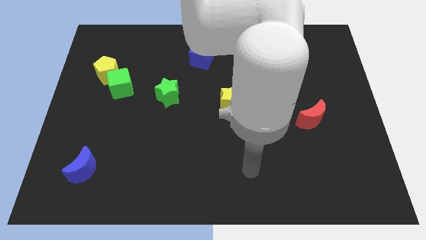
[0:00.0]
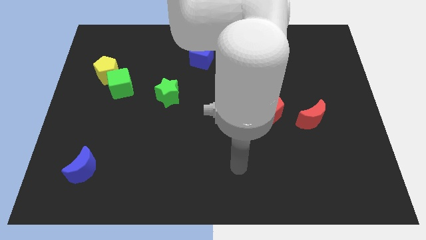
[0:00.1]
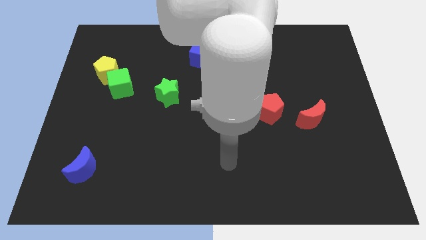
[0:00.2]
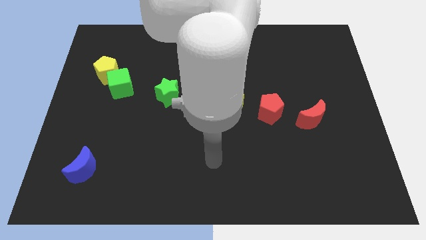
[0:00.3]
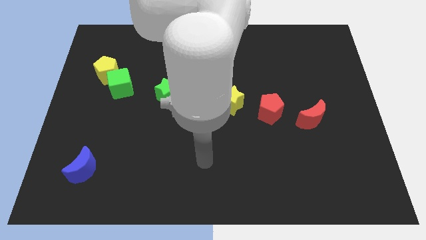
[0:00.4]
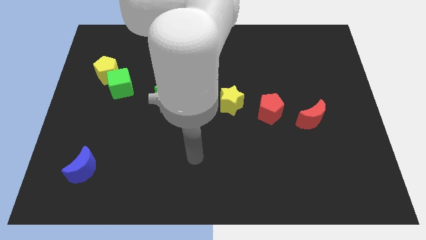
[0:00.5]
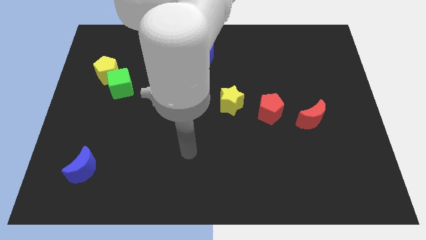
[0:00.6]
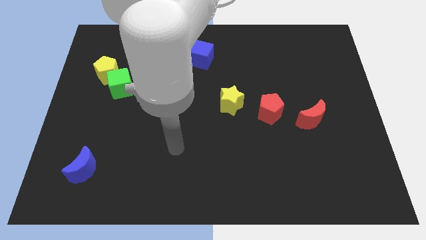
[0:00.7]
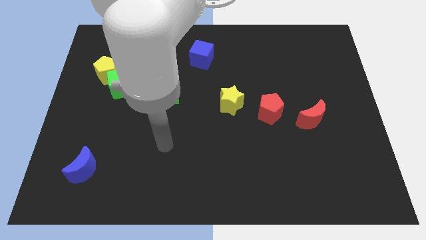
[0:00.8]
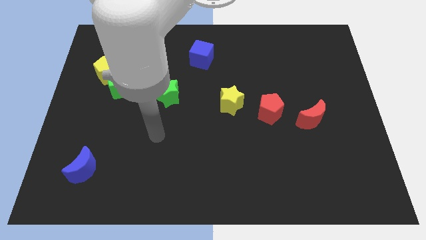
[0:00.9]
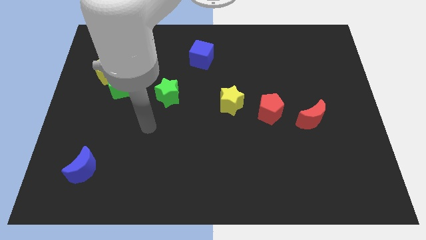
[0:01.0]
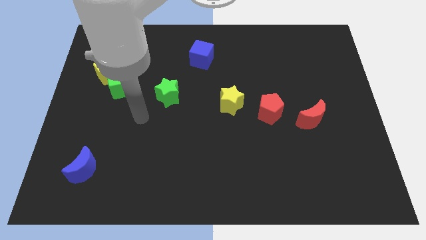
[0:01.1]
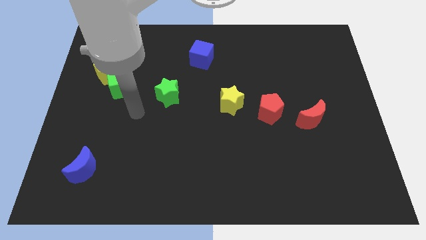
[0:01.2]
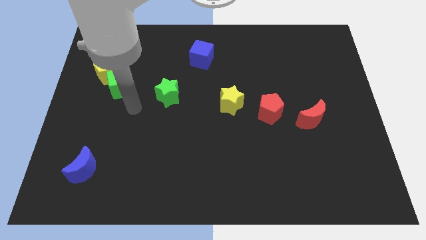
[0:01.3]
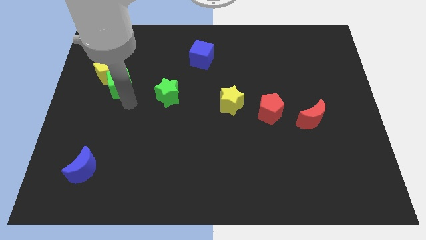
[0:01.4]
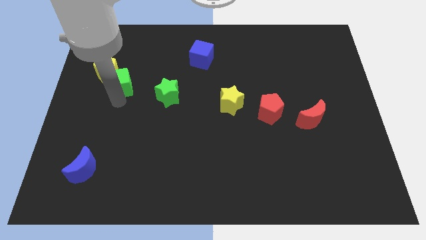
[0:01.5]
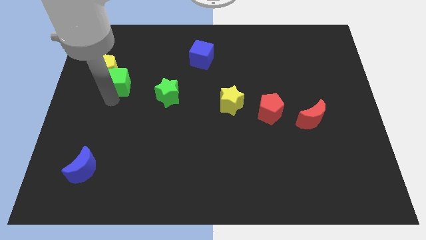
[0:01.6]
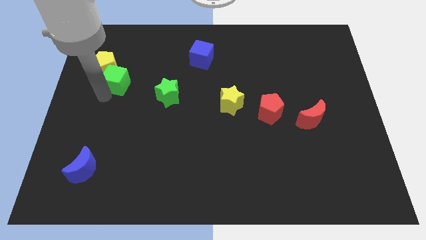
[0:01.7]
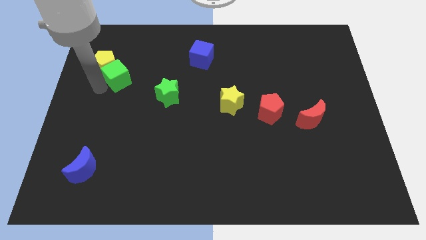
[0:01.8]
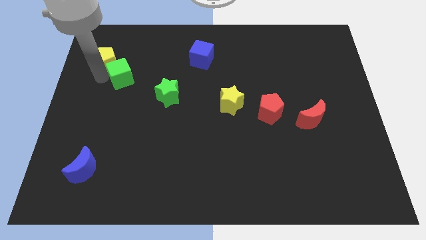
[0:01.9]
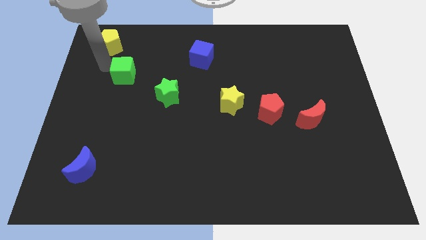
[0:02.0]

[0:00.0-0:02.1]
separate the green cube from the yellow pentagon

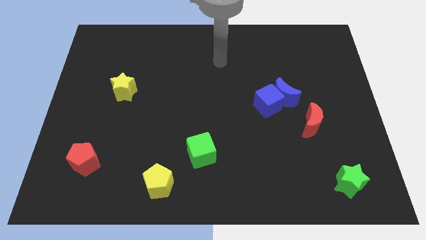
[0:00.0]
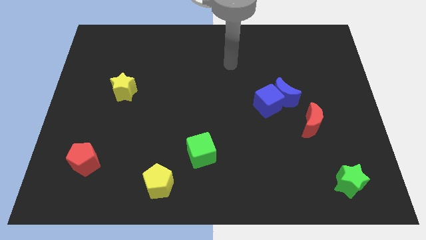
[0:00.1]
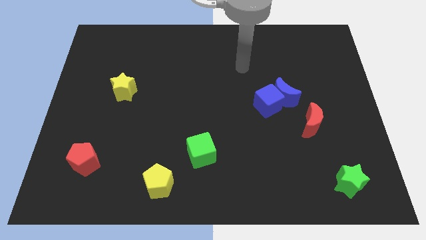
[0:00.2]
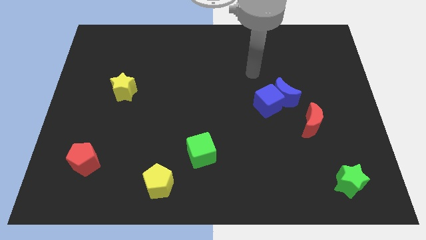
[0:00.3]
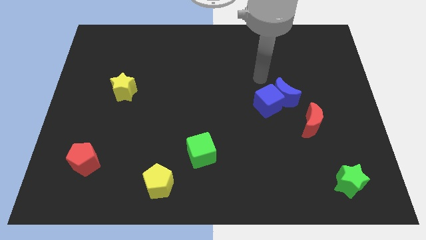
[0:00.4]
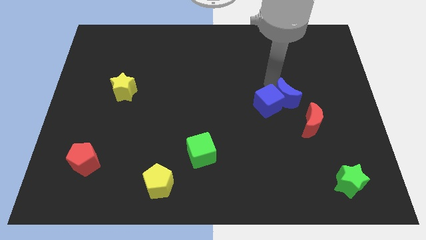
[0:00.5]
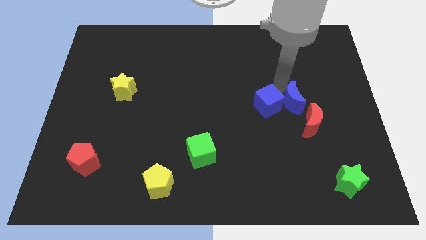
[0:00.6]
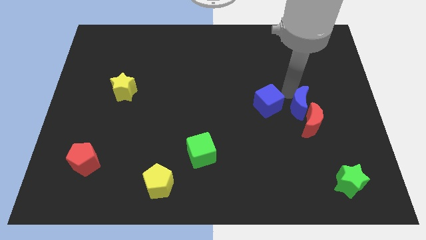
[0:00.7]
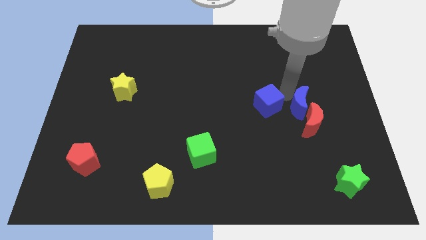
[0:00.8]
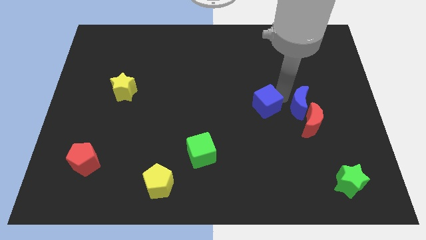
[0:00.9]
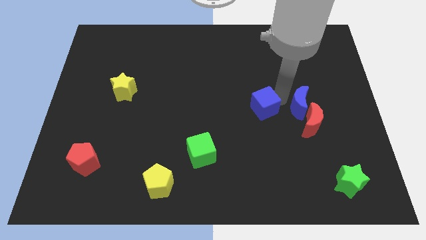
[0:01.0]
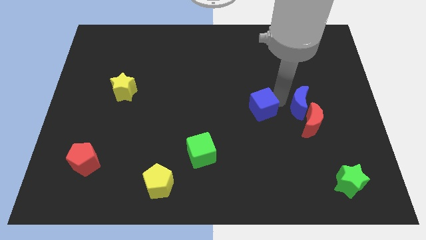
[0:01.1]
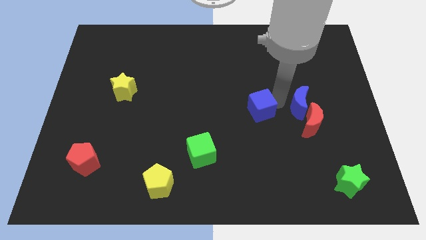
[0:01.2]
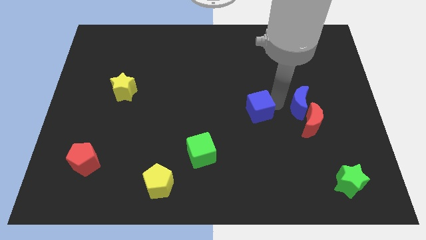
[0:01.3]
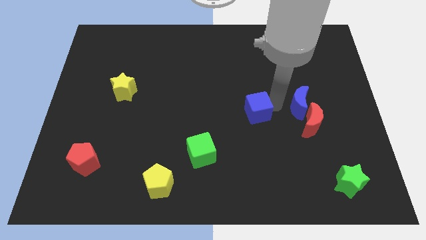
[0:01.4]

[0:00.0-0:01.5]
pull the blue cube apart from the blue moon

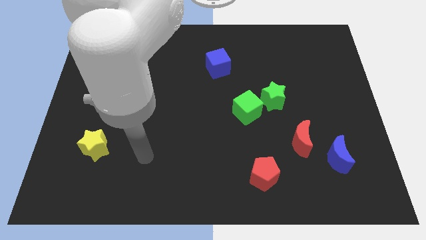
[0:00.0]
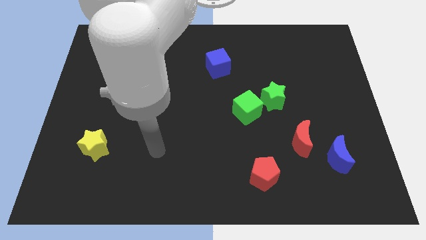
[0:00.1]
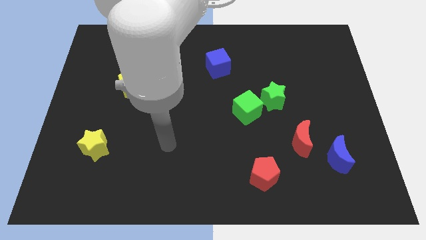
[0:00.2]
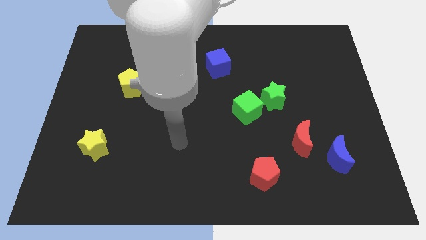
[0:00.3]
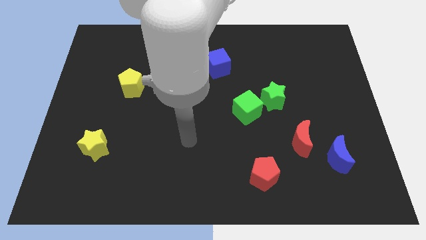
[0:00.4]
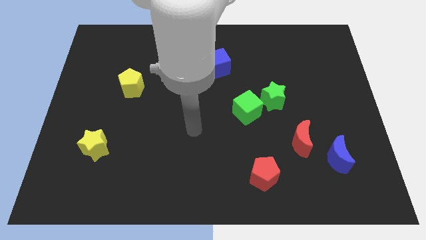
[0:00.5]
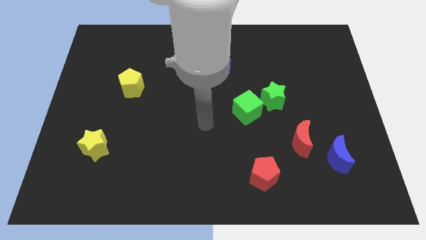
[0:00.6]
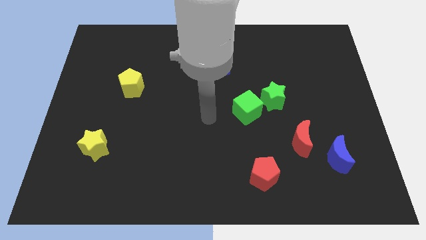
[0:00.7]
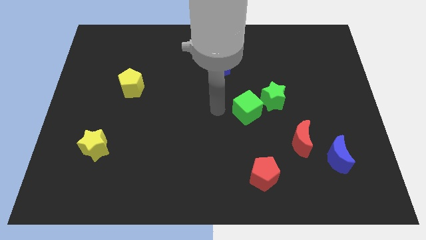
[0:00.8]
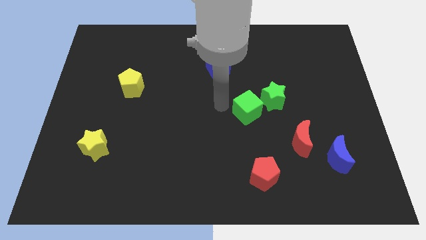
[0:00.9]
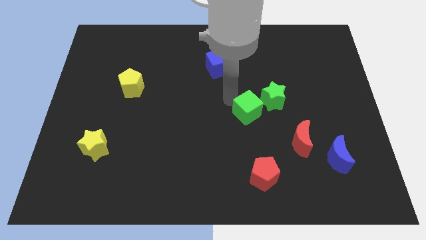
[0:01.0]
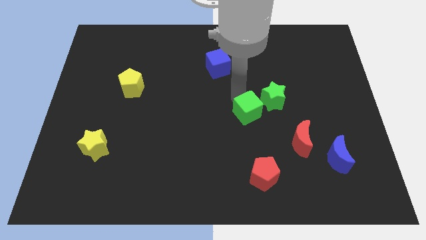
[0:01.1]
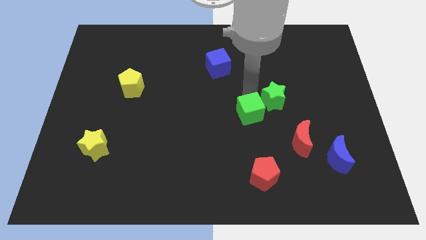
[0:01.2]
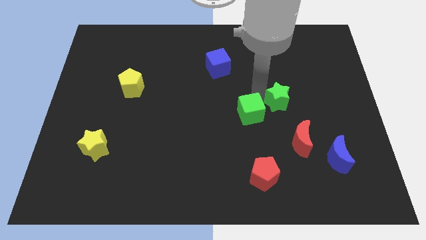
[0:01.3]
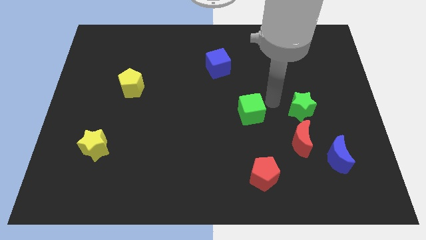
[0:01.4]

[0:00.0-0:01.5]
separate the green cube from the green star

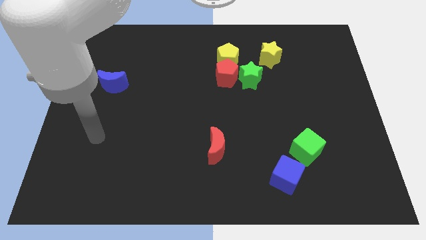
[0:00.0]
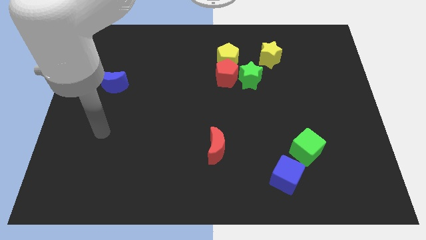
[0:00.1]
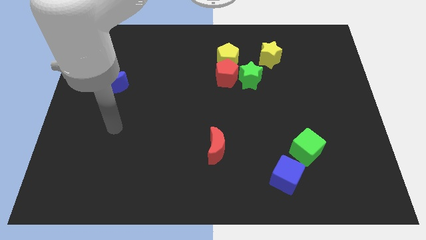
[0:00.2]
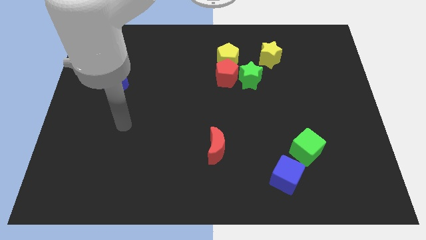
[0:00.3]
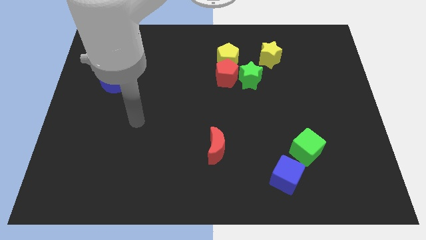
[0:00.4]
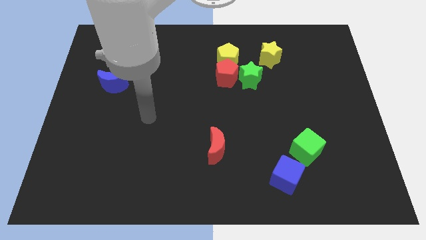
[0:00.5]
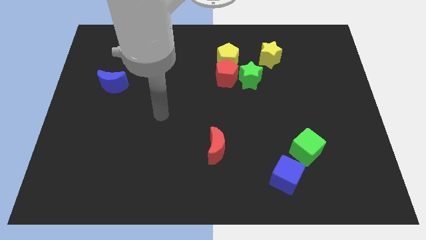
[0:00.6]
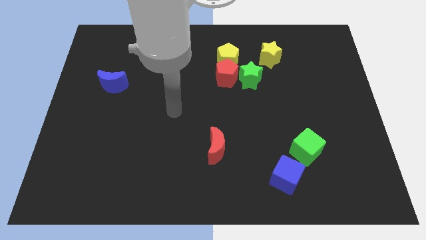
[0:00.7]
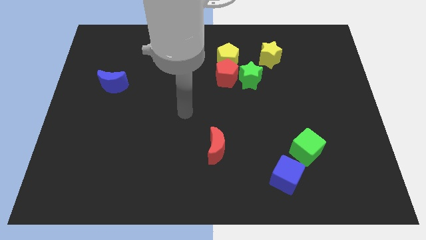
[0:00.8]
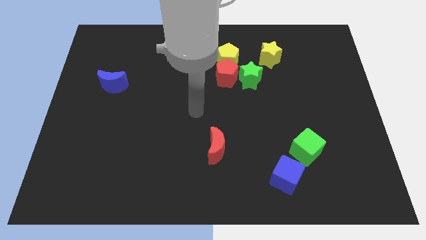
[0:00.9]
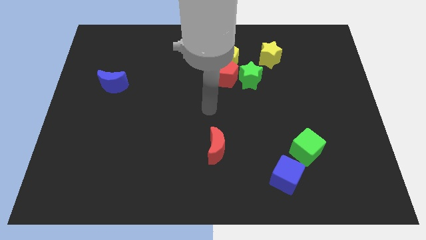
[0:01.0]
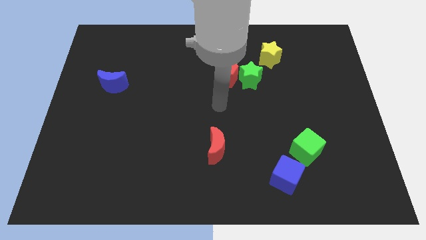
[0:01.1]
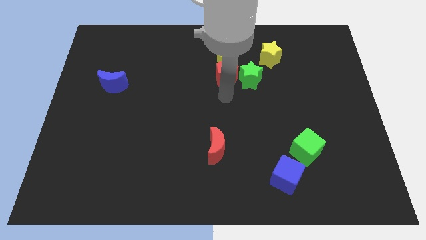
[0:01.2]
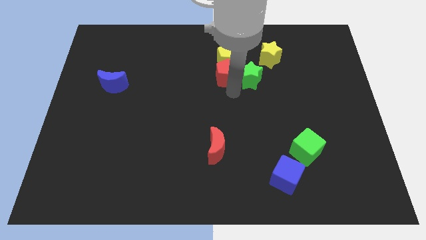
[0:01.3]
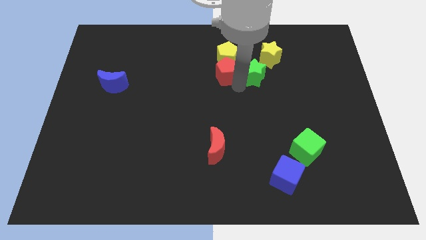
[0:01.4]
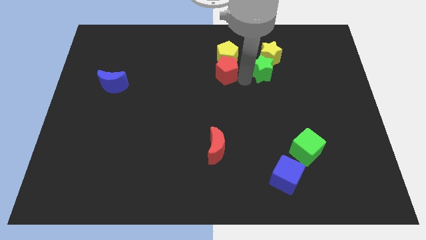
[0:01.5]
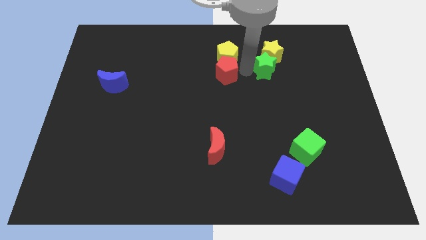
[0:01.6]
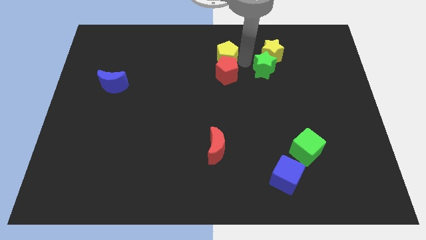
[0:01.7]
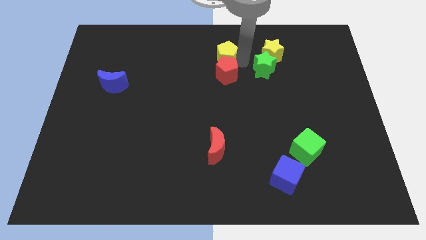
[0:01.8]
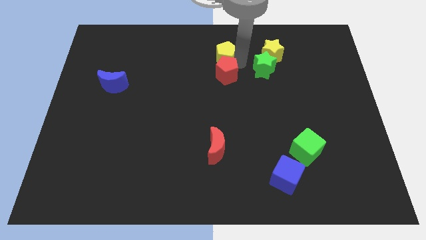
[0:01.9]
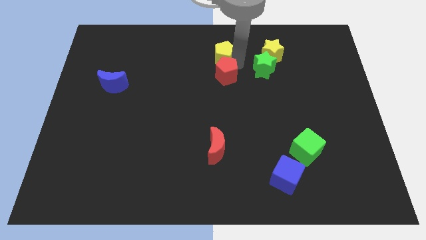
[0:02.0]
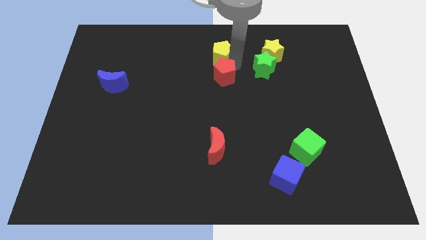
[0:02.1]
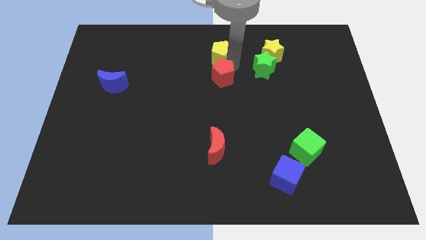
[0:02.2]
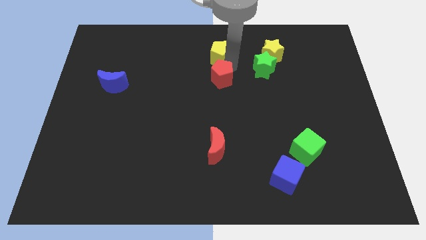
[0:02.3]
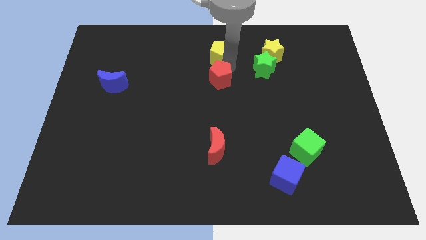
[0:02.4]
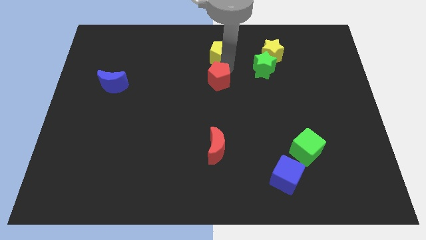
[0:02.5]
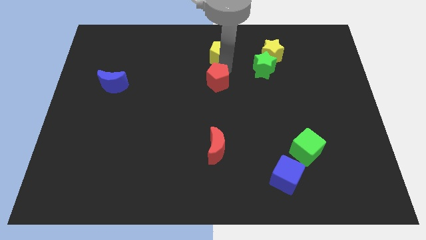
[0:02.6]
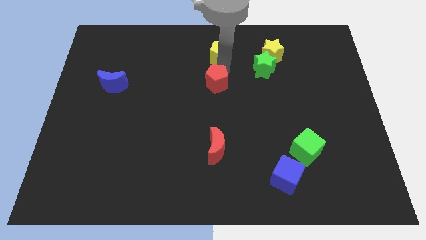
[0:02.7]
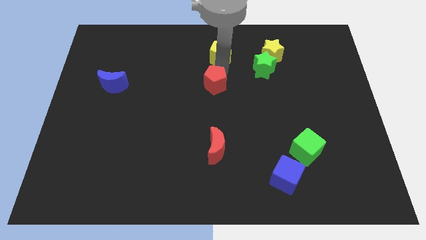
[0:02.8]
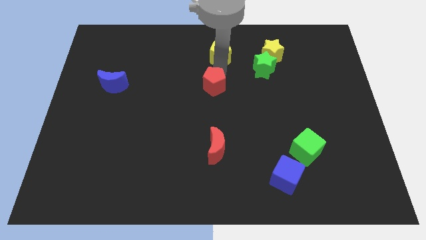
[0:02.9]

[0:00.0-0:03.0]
move the red pentagon away from the yellow pentagon and green star

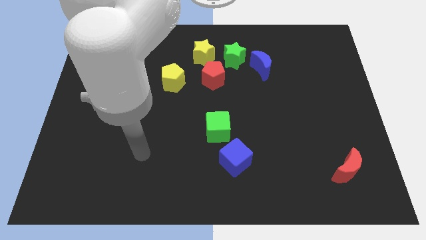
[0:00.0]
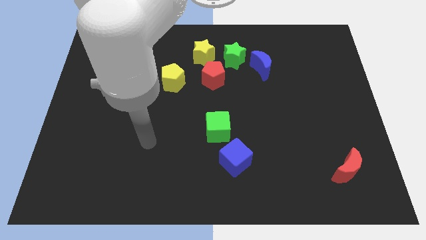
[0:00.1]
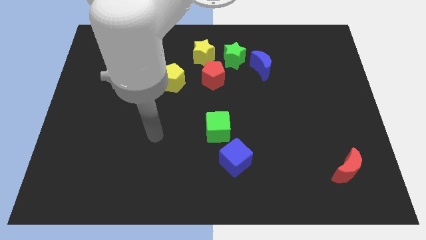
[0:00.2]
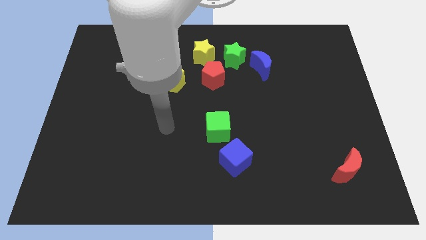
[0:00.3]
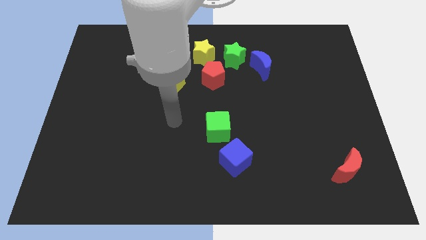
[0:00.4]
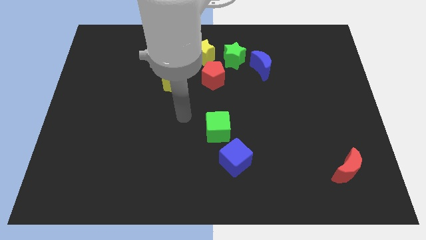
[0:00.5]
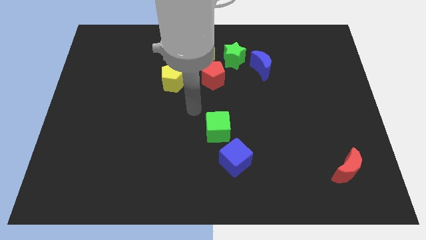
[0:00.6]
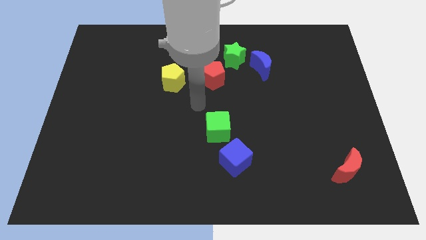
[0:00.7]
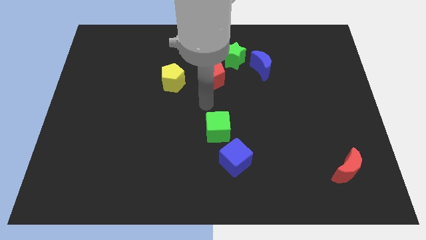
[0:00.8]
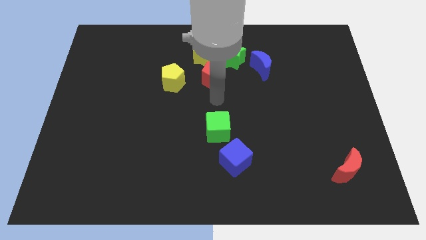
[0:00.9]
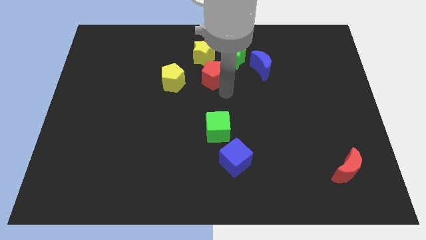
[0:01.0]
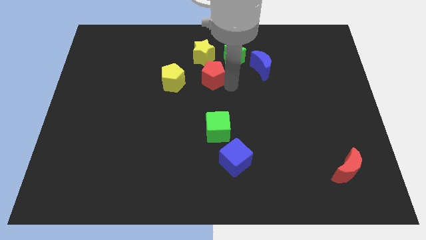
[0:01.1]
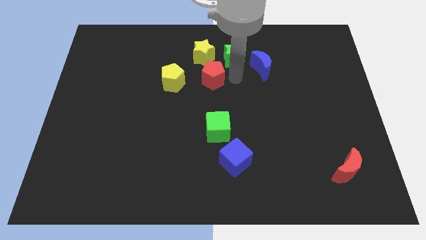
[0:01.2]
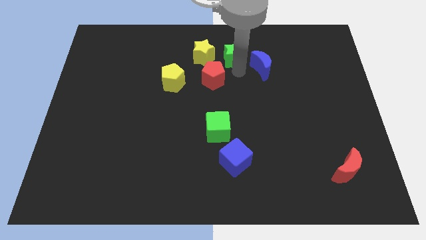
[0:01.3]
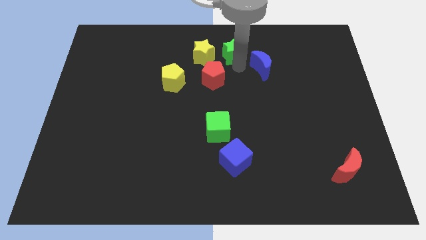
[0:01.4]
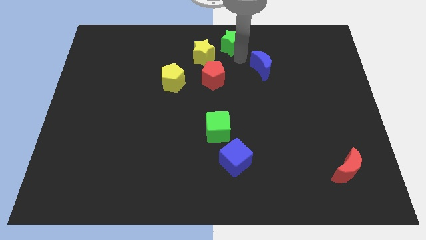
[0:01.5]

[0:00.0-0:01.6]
pull the blue moon apart from the green star
